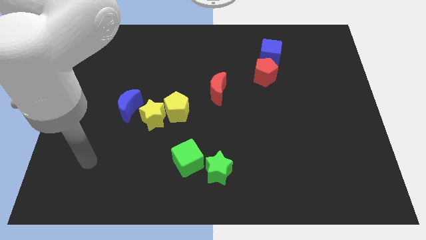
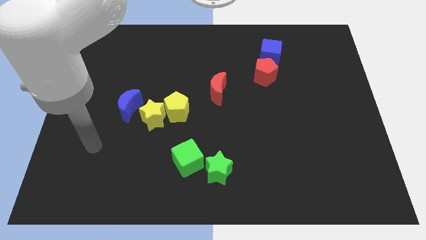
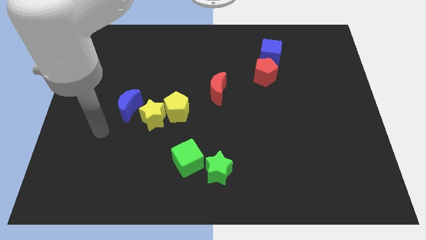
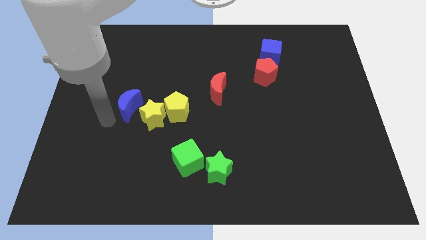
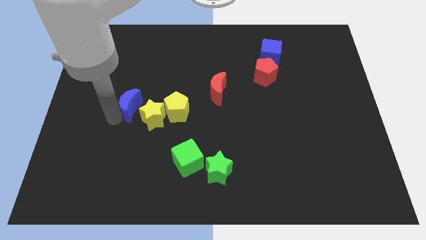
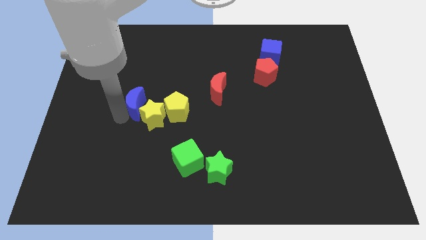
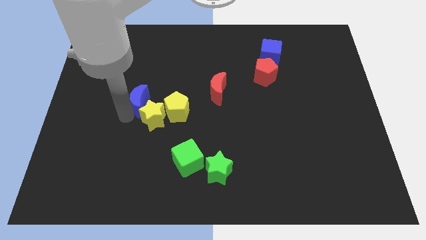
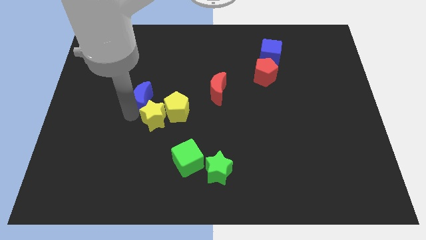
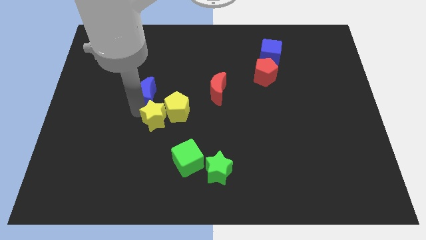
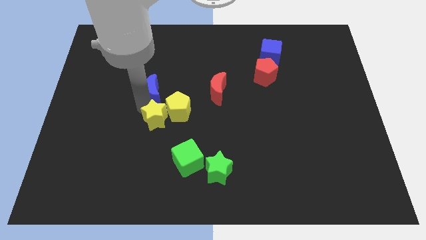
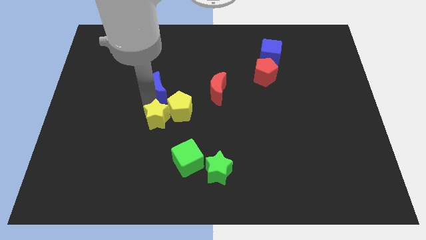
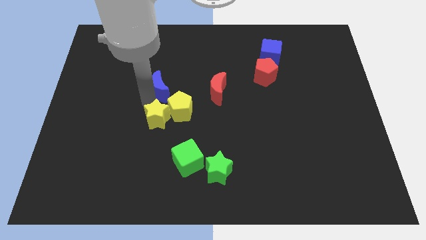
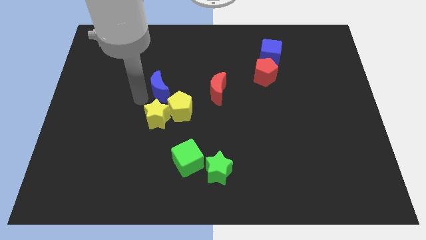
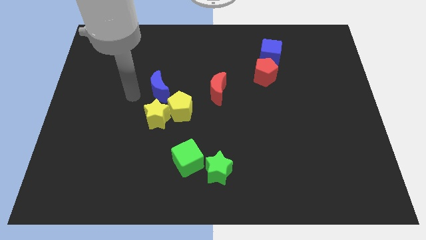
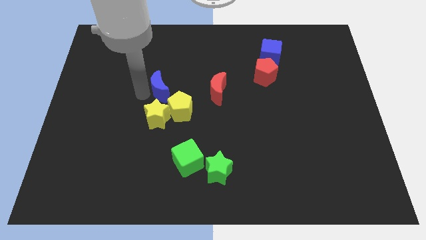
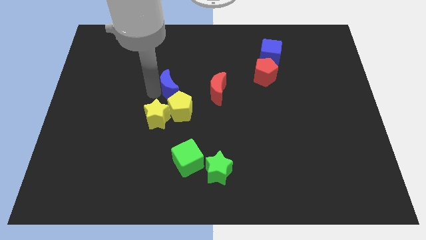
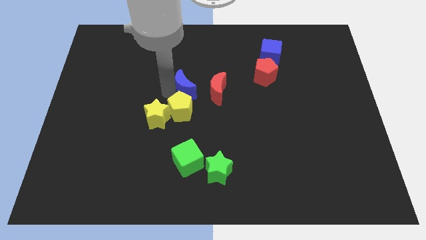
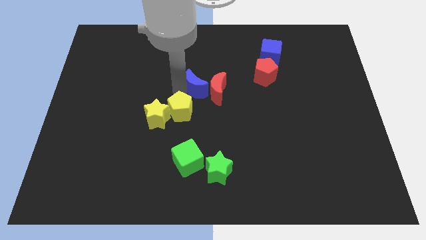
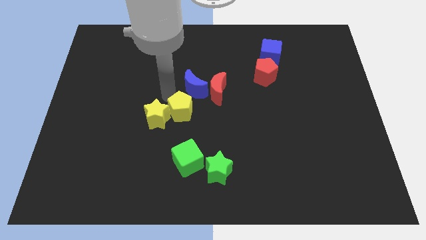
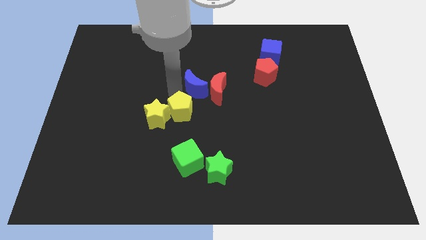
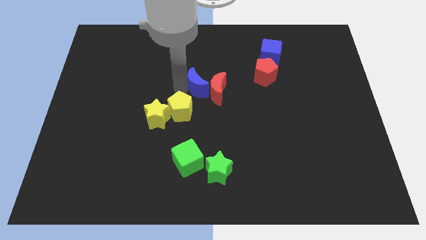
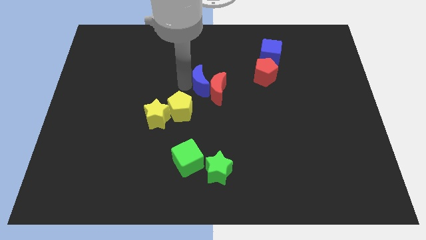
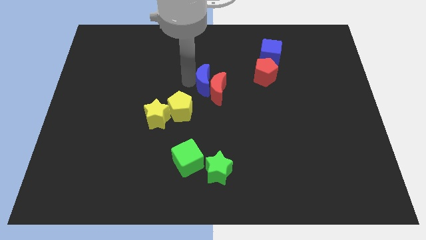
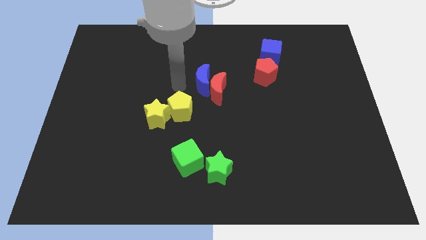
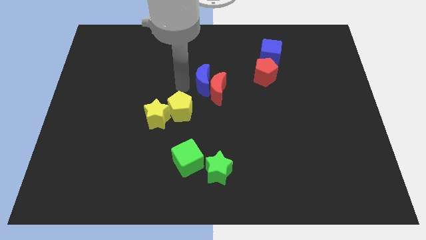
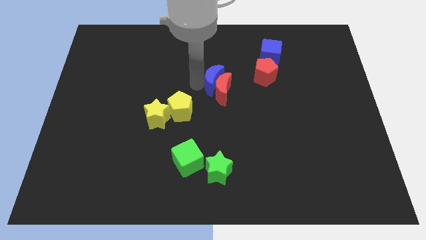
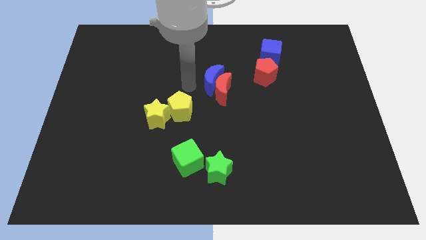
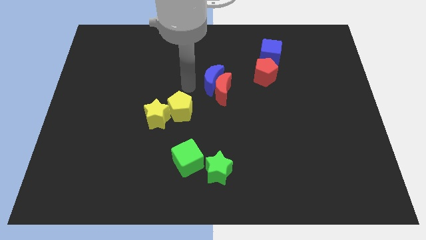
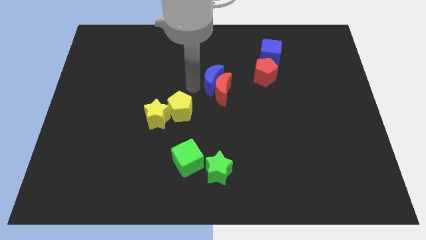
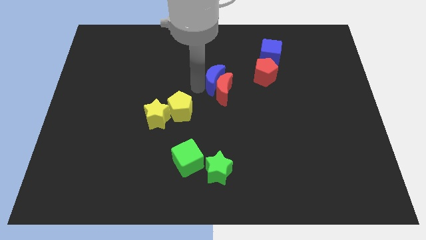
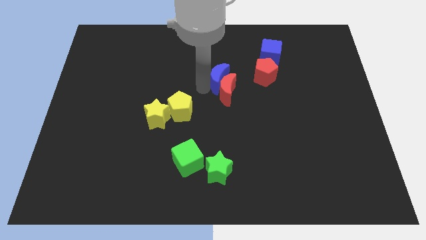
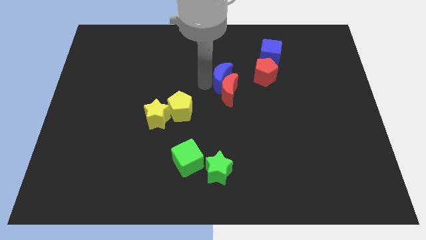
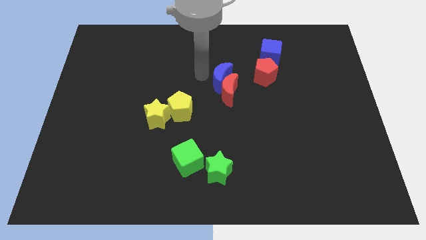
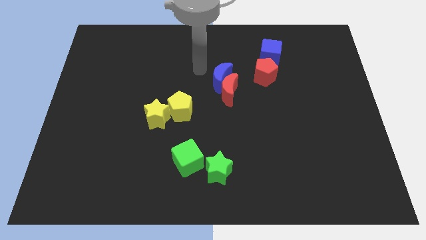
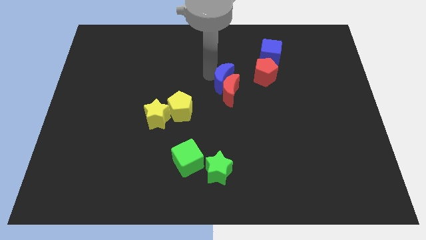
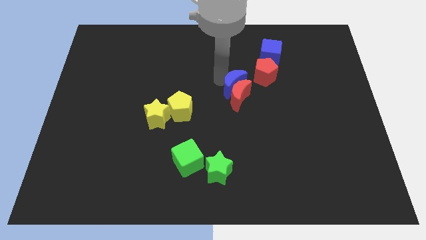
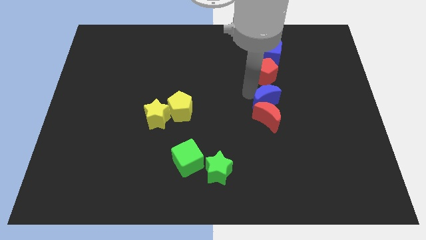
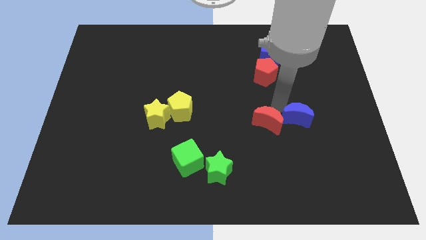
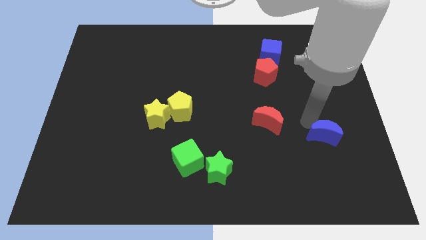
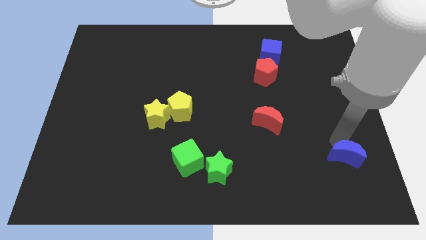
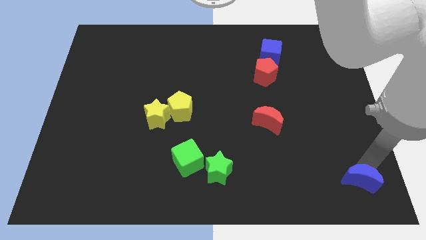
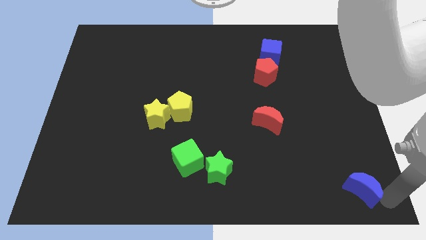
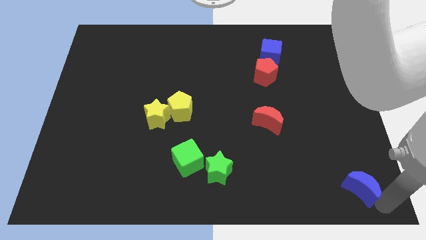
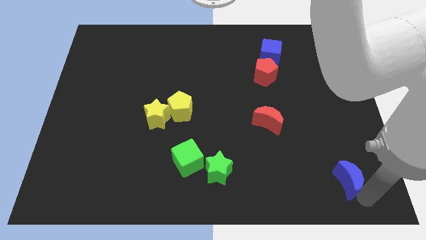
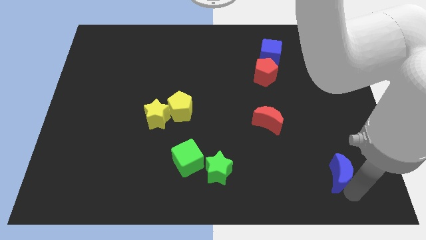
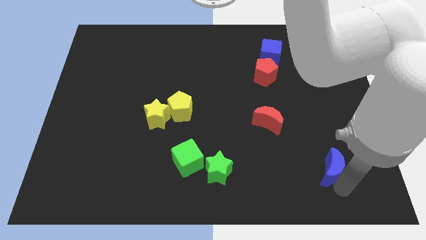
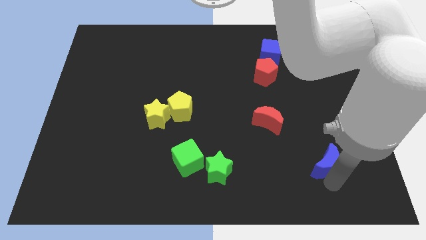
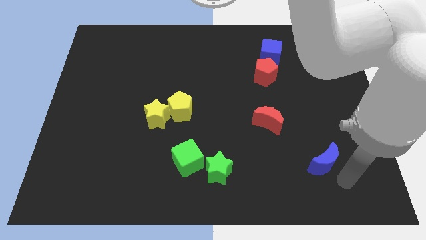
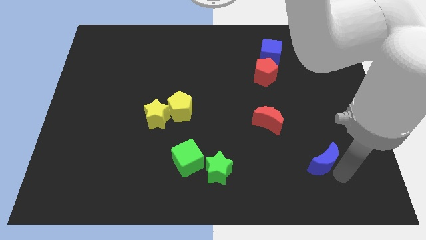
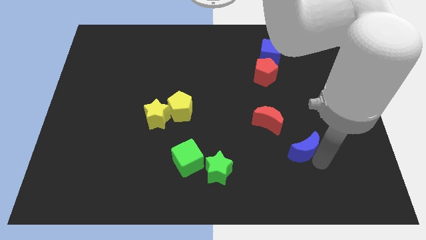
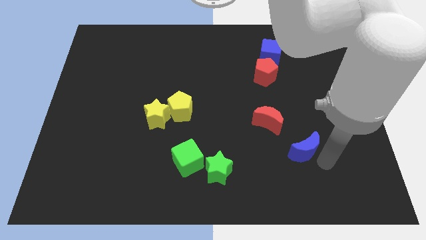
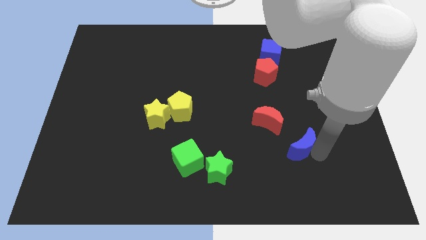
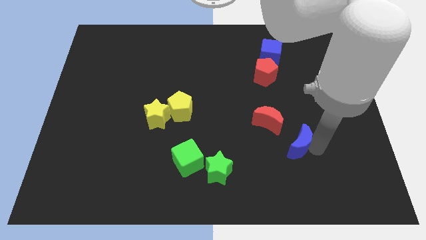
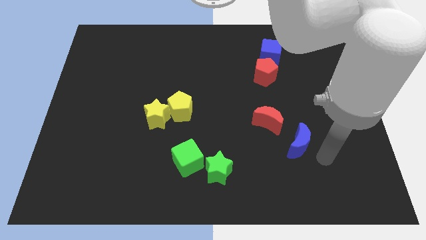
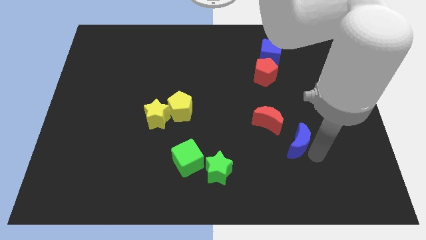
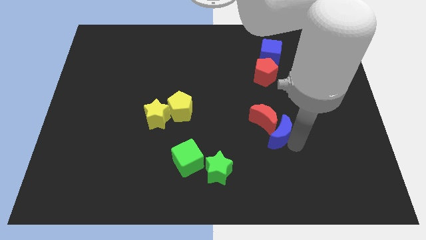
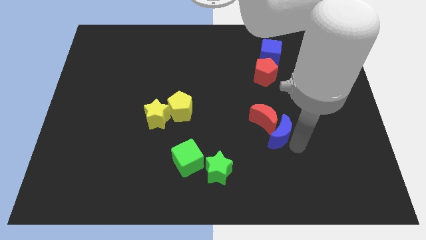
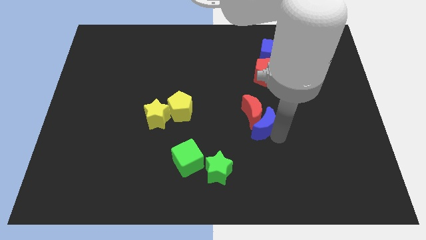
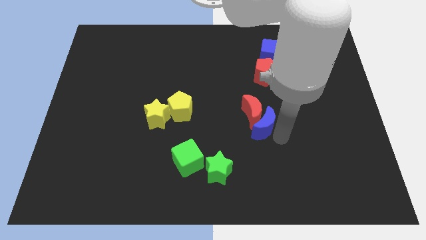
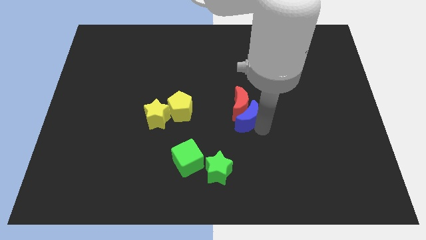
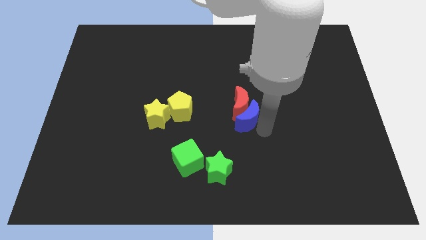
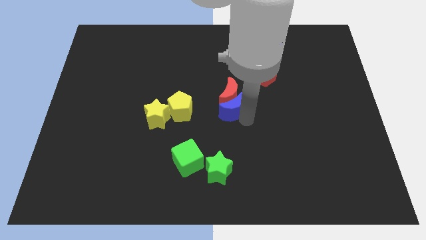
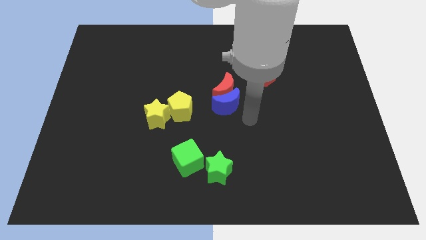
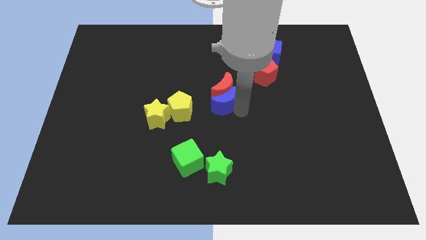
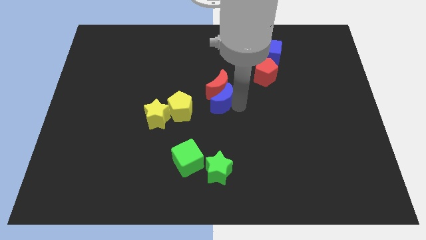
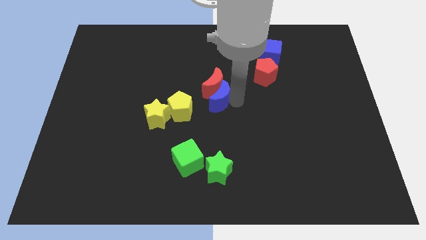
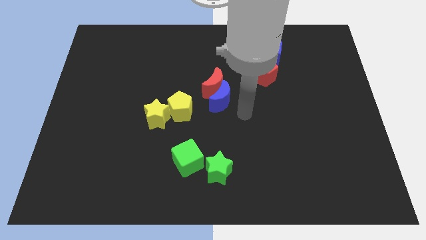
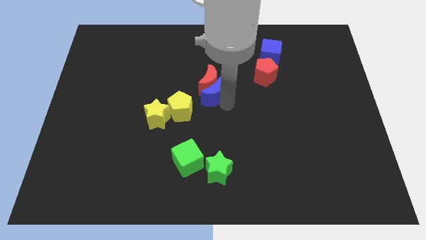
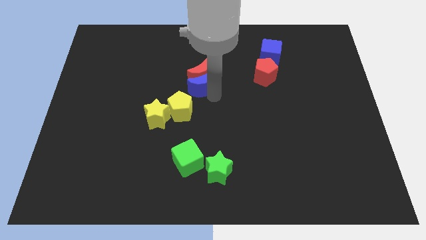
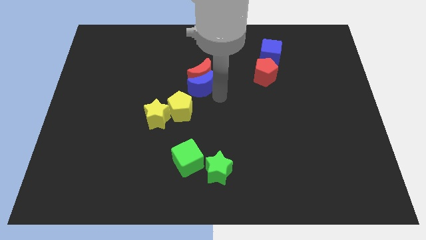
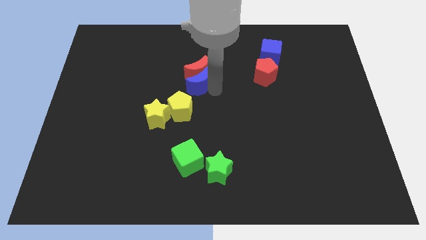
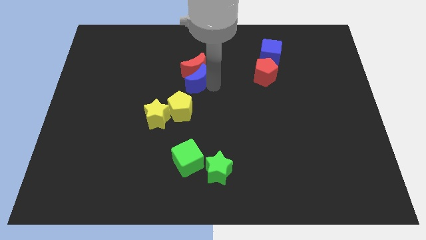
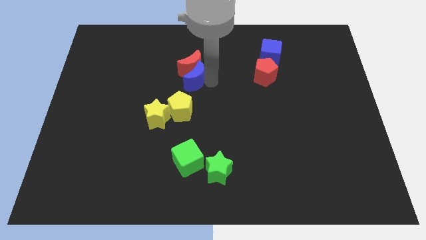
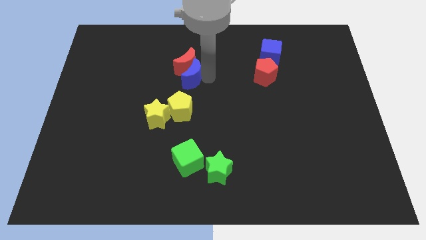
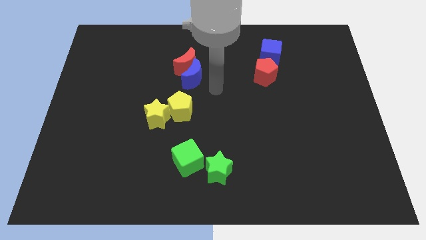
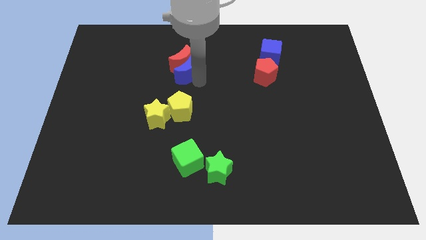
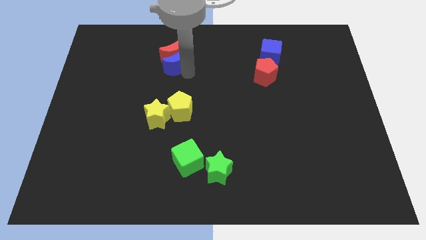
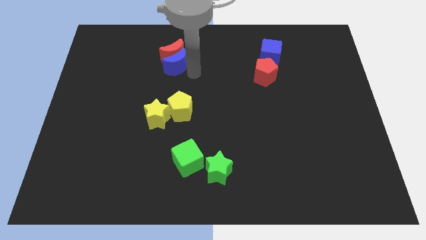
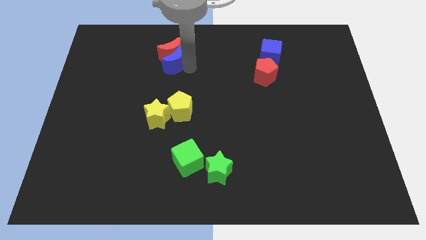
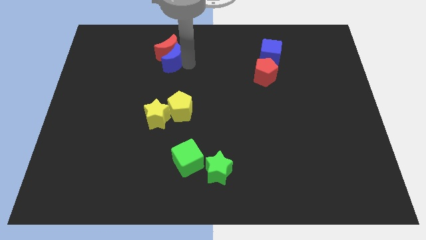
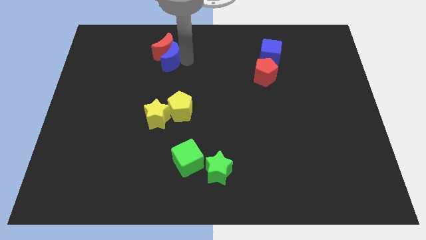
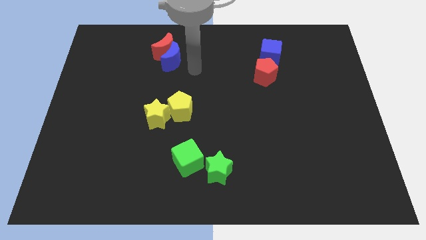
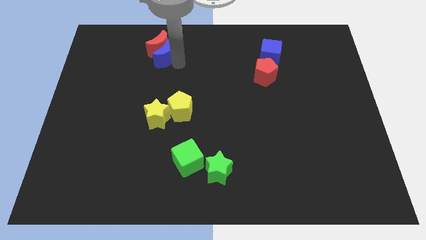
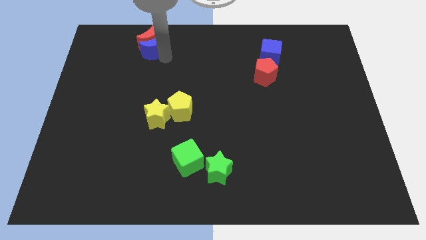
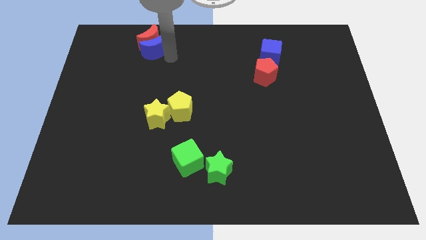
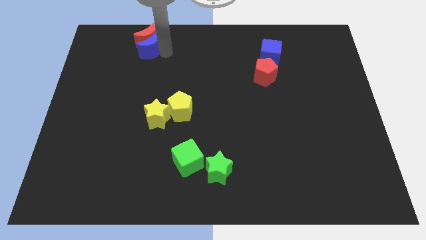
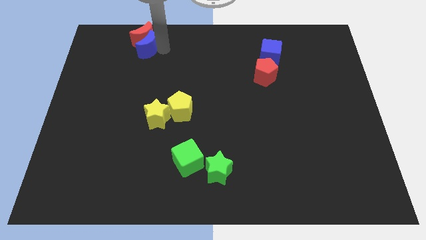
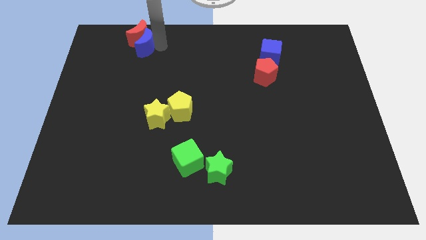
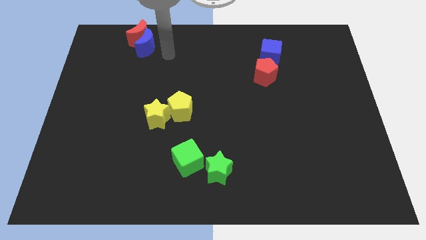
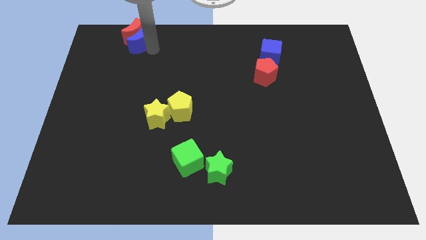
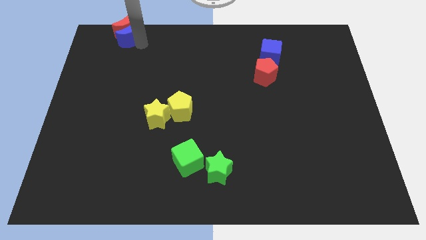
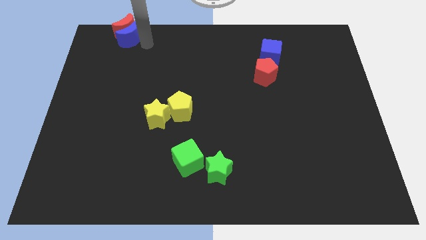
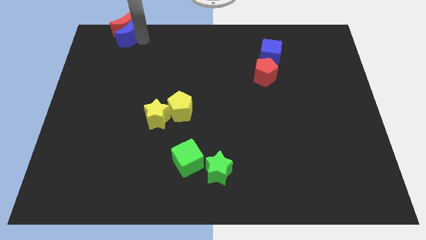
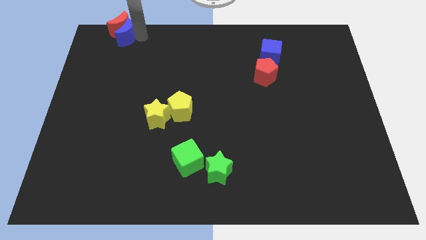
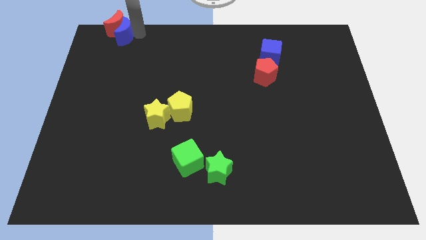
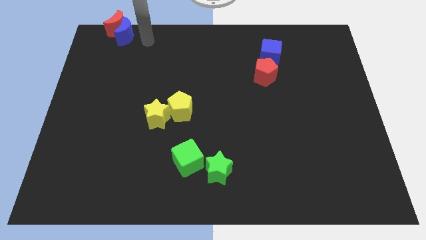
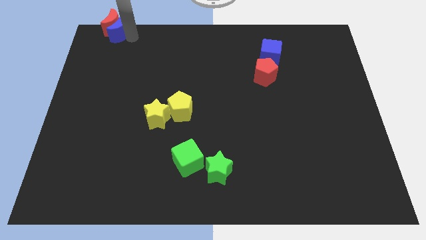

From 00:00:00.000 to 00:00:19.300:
put the blue moon to the top left
